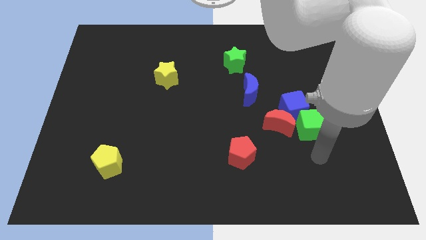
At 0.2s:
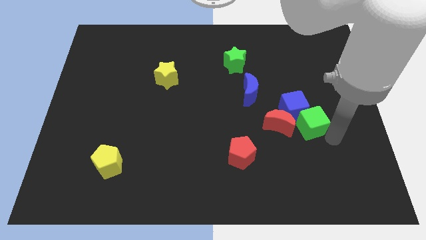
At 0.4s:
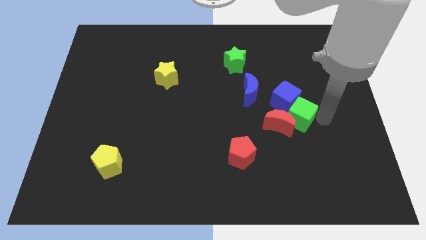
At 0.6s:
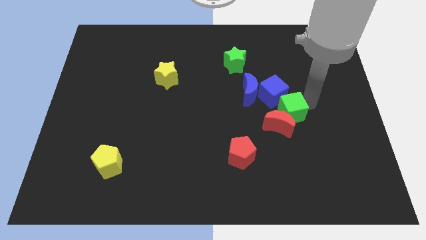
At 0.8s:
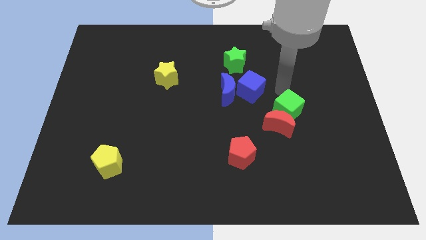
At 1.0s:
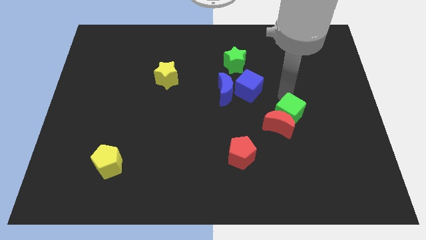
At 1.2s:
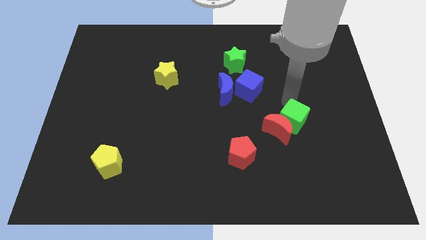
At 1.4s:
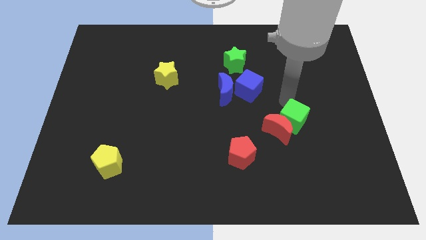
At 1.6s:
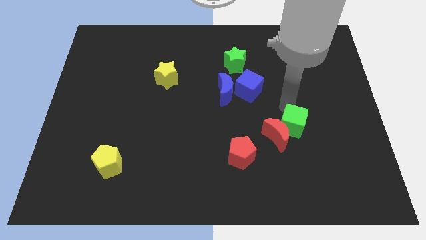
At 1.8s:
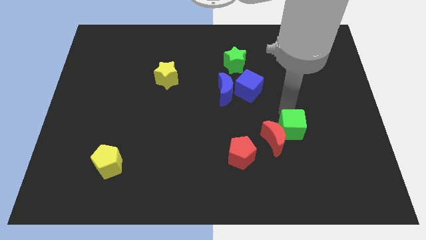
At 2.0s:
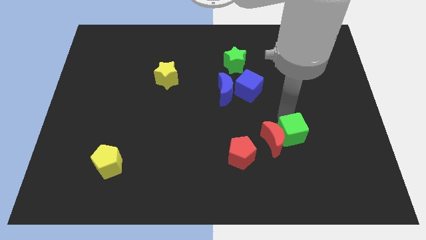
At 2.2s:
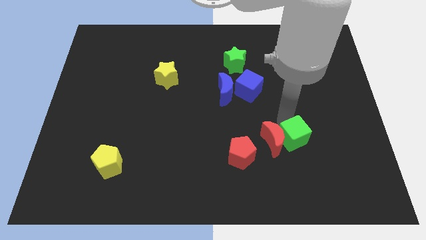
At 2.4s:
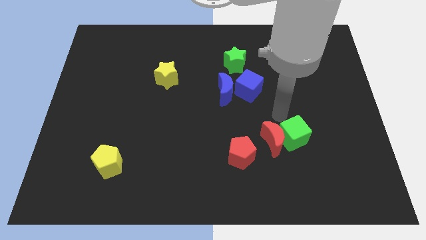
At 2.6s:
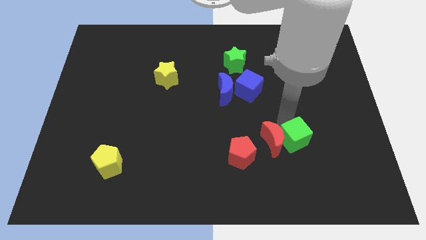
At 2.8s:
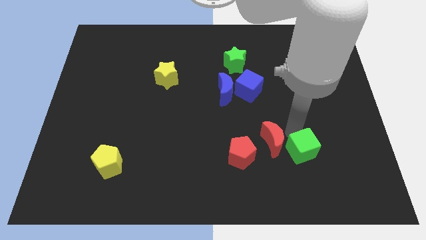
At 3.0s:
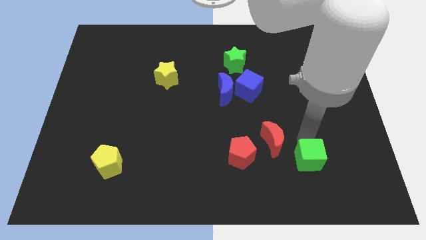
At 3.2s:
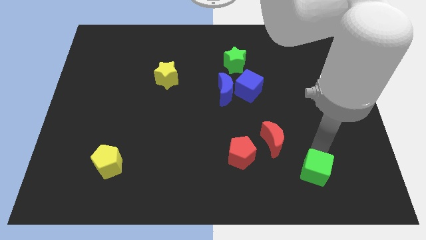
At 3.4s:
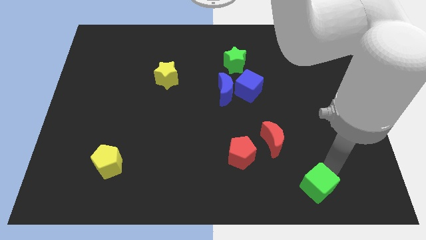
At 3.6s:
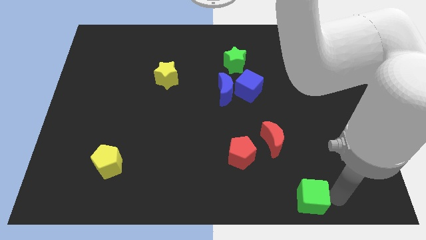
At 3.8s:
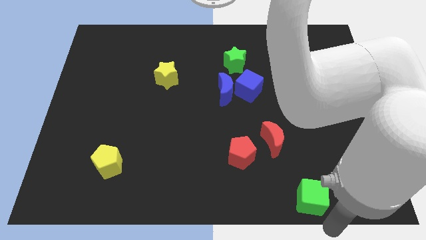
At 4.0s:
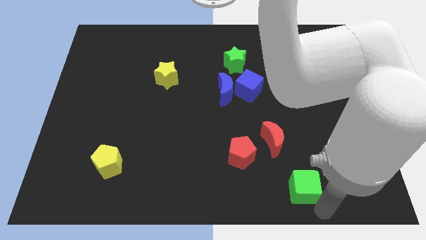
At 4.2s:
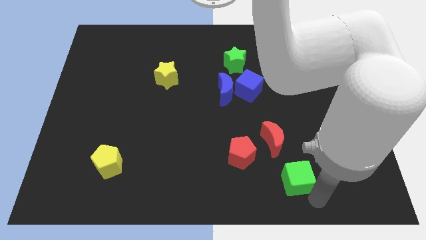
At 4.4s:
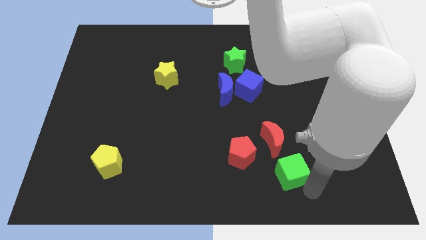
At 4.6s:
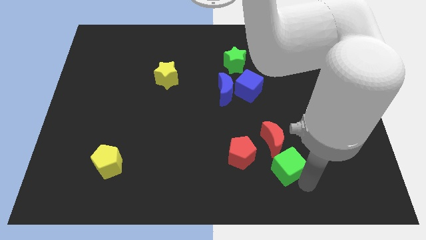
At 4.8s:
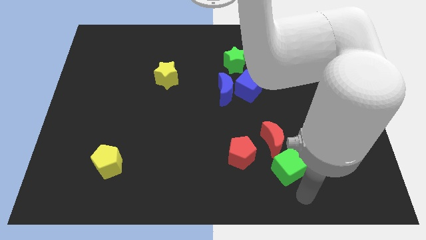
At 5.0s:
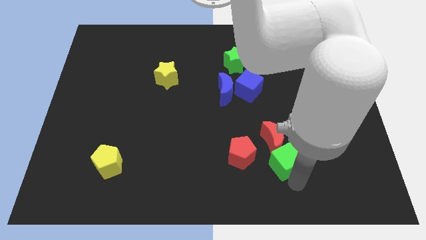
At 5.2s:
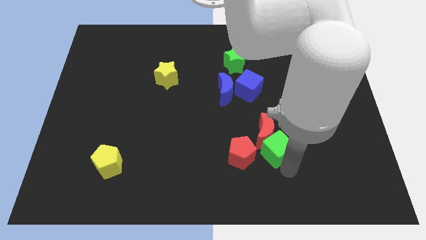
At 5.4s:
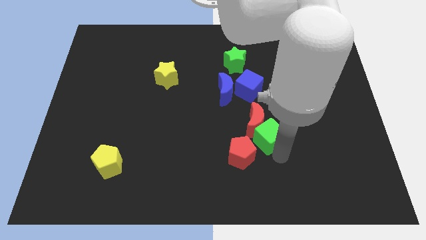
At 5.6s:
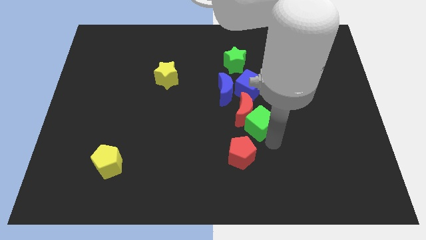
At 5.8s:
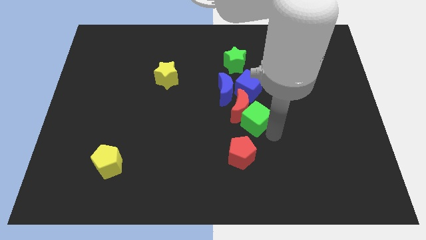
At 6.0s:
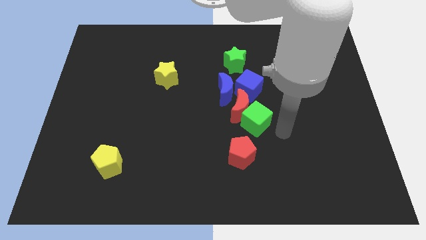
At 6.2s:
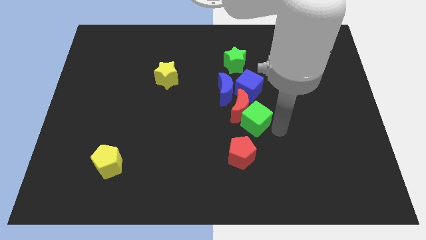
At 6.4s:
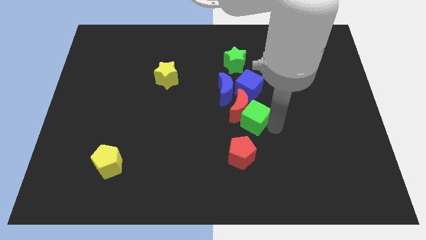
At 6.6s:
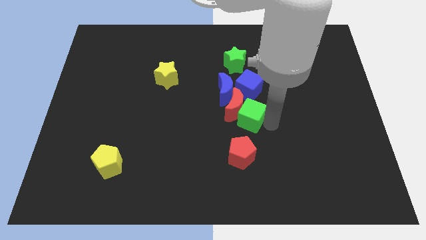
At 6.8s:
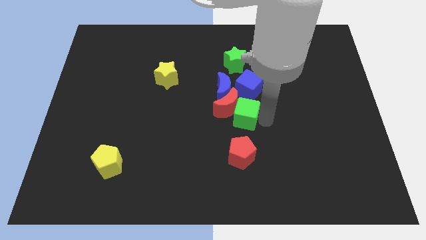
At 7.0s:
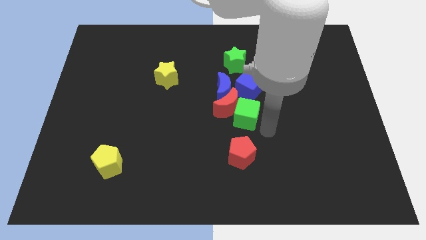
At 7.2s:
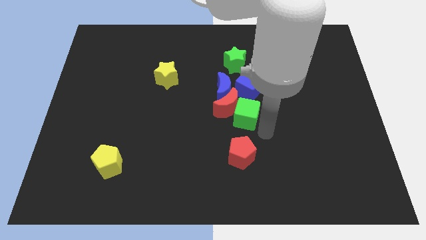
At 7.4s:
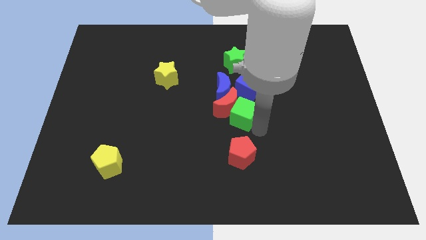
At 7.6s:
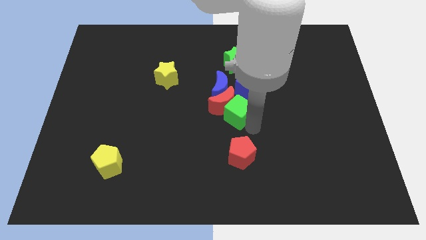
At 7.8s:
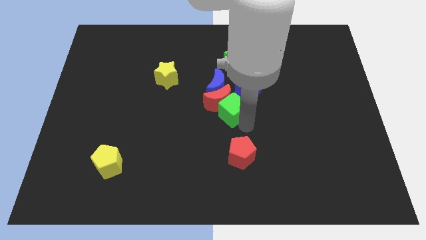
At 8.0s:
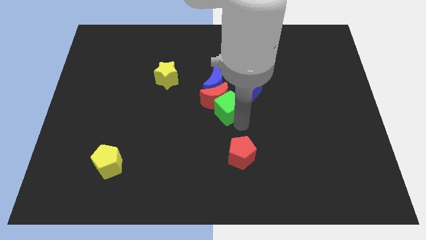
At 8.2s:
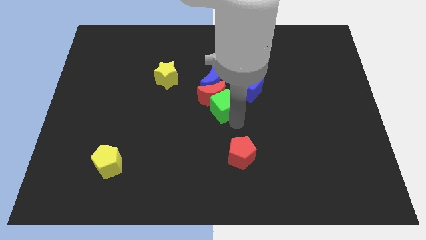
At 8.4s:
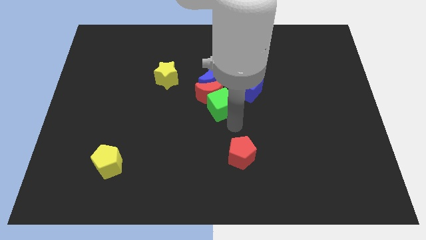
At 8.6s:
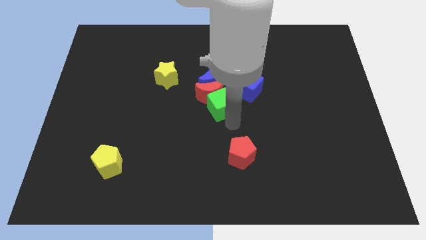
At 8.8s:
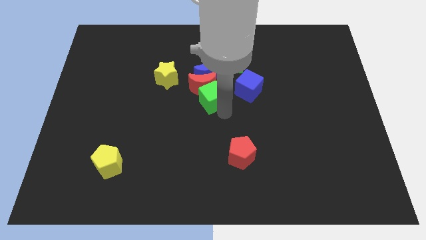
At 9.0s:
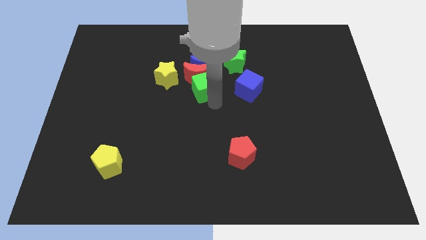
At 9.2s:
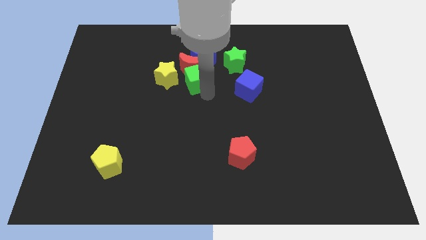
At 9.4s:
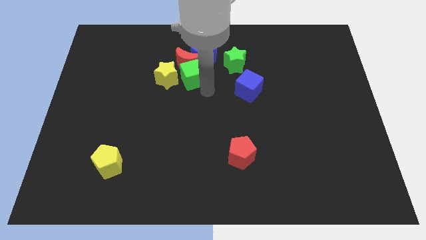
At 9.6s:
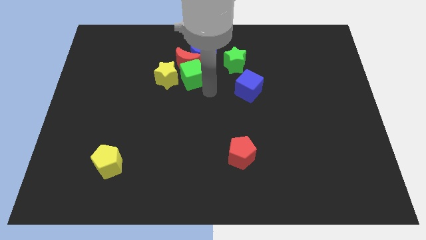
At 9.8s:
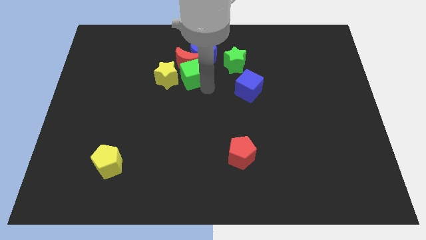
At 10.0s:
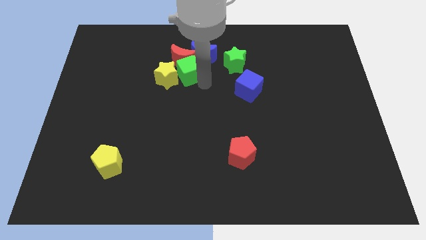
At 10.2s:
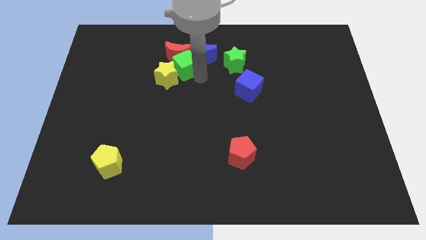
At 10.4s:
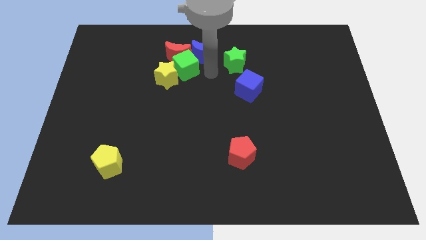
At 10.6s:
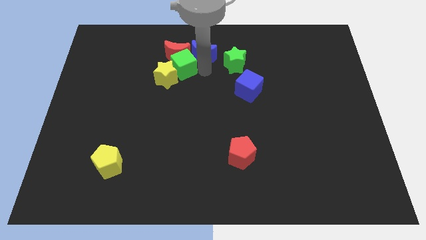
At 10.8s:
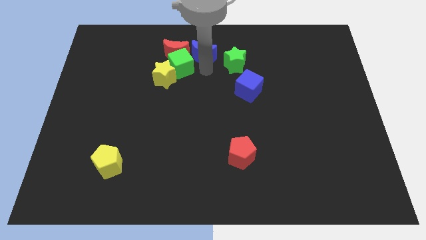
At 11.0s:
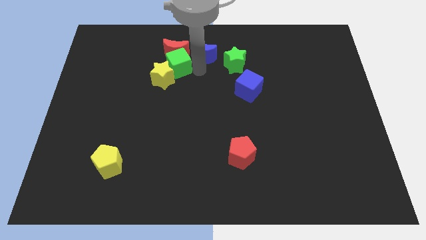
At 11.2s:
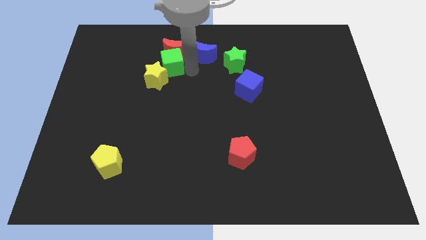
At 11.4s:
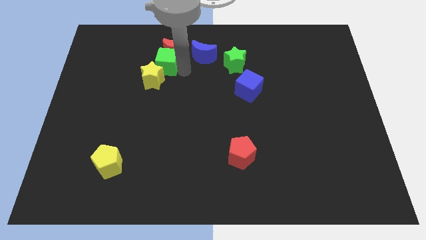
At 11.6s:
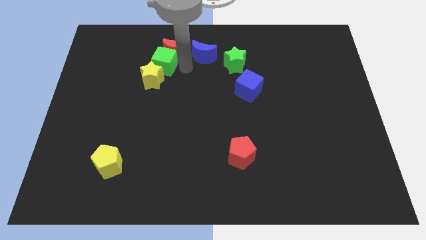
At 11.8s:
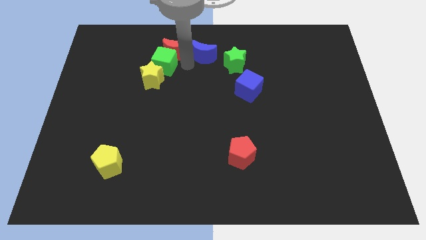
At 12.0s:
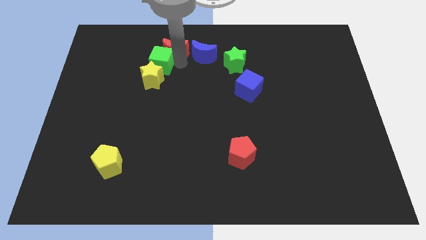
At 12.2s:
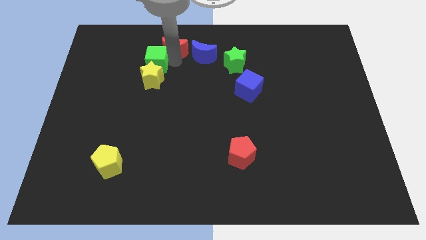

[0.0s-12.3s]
push the green cube to the top left of the yellow star
